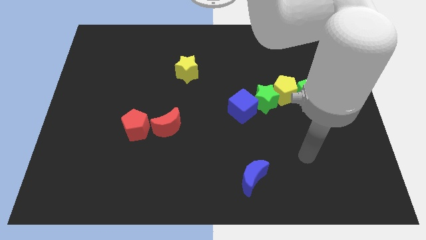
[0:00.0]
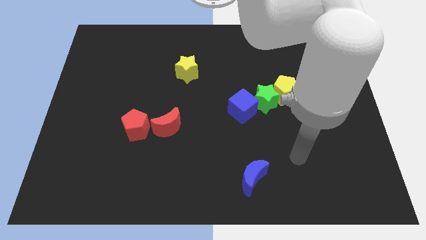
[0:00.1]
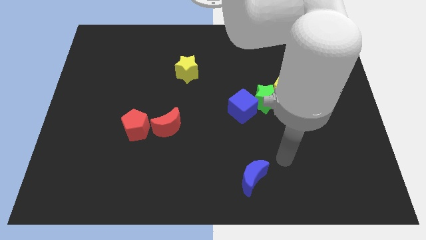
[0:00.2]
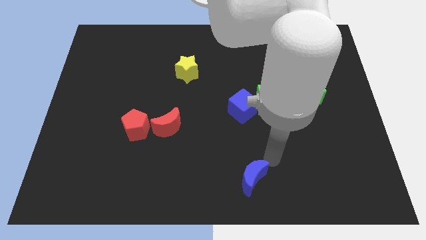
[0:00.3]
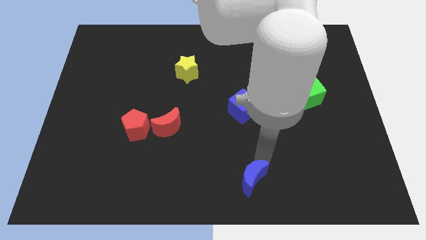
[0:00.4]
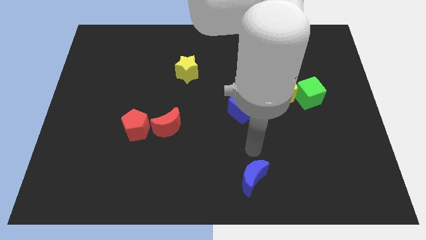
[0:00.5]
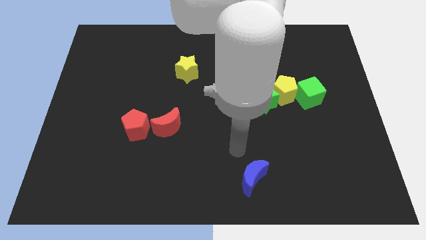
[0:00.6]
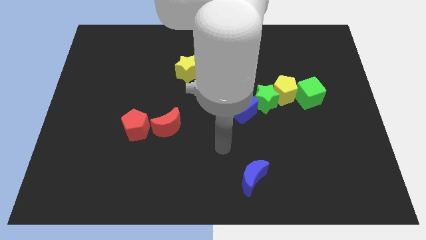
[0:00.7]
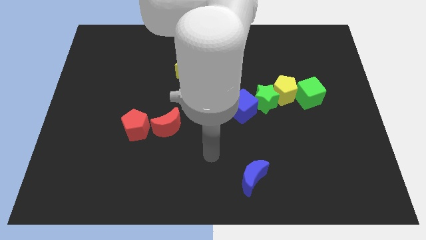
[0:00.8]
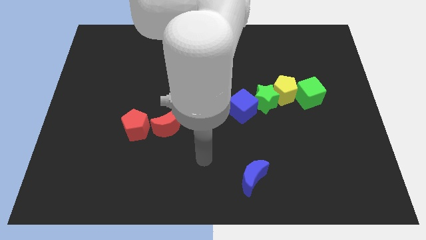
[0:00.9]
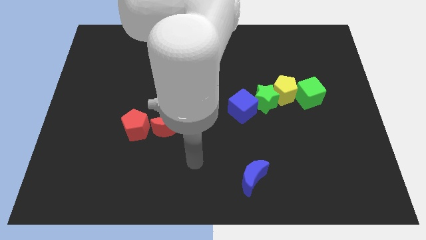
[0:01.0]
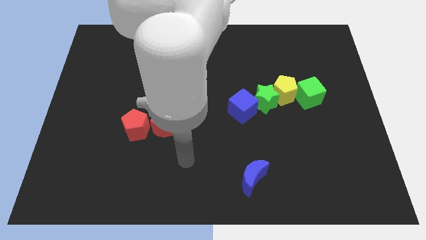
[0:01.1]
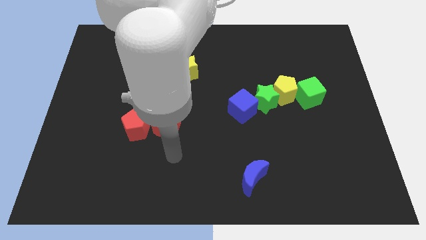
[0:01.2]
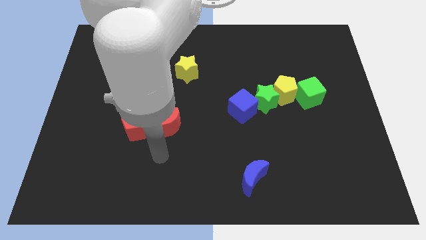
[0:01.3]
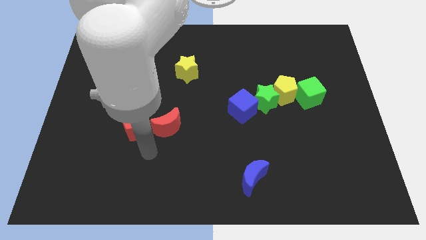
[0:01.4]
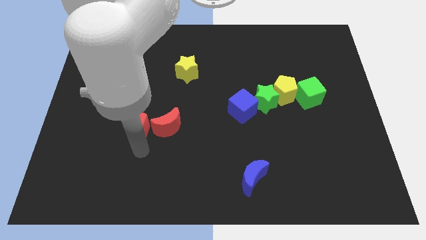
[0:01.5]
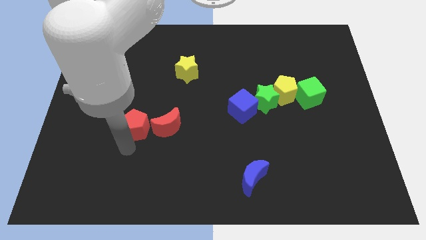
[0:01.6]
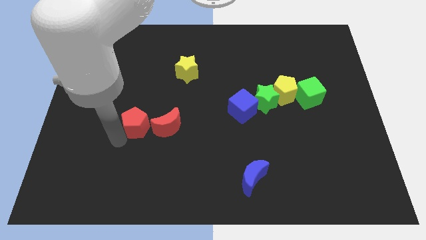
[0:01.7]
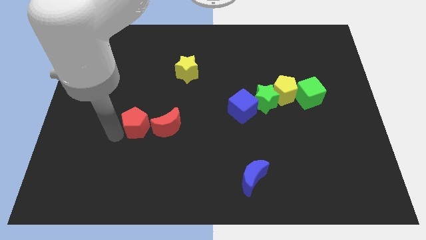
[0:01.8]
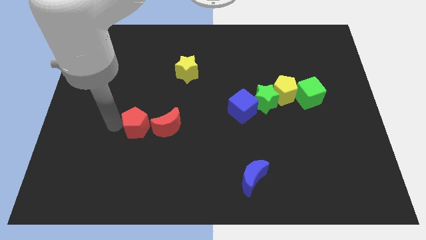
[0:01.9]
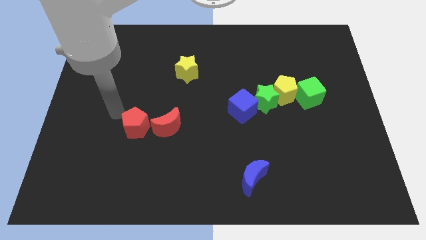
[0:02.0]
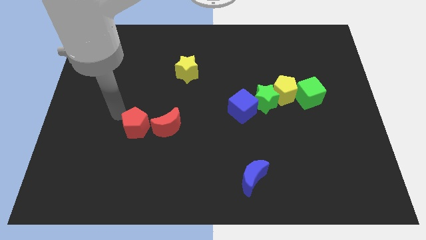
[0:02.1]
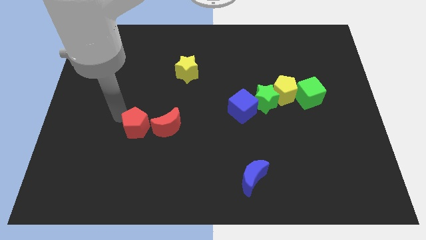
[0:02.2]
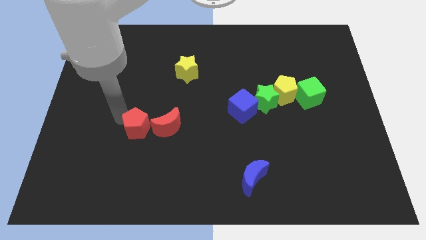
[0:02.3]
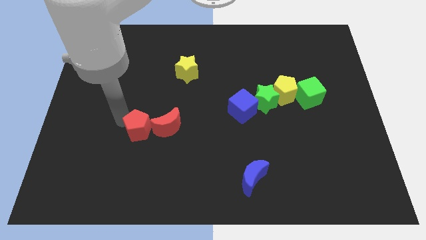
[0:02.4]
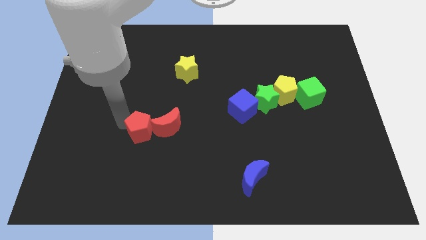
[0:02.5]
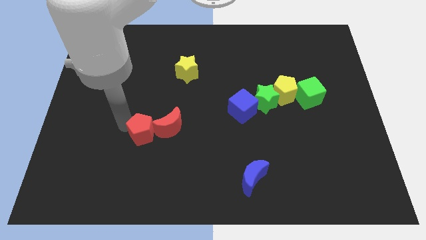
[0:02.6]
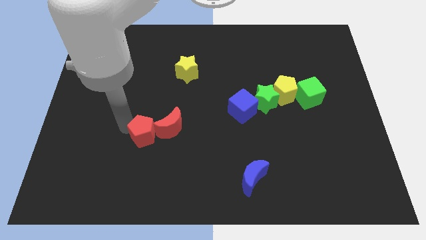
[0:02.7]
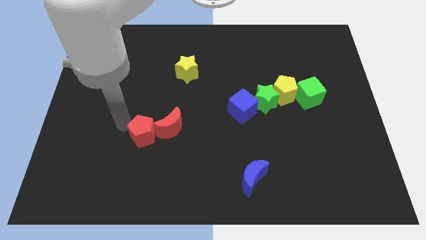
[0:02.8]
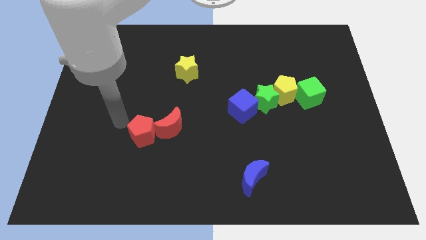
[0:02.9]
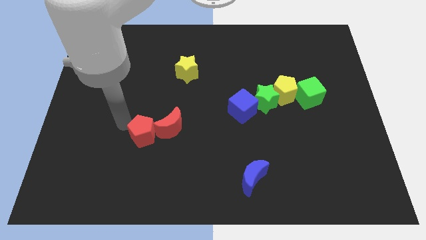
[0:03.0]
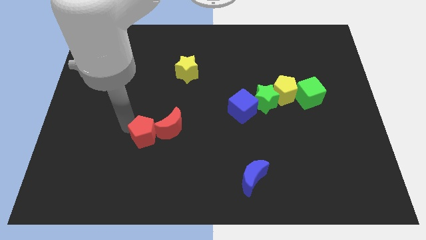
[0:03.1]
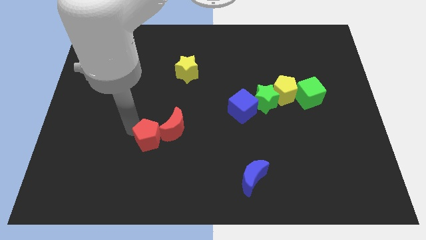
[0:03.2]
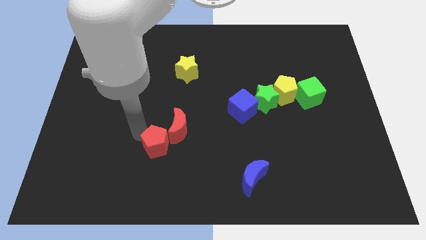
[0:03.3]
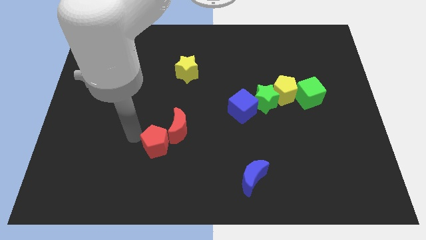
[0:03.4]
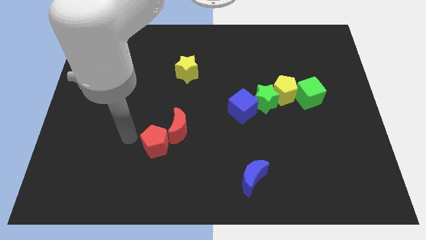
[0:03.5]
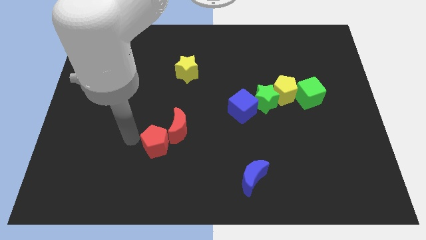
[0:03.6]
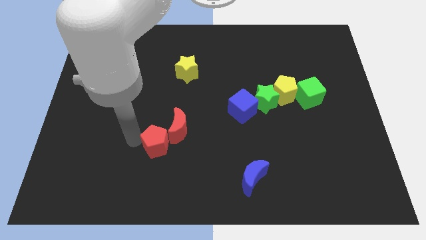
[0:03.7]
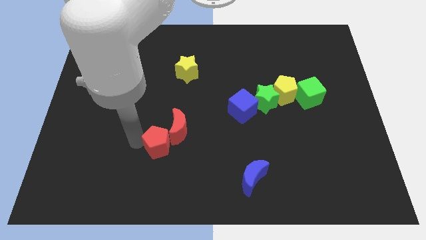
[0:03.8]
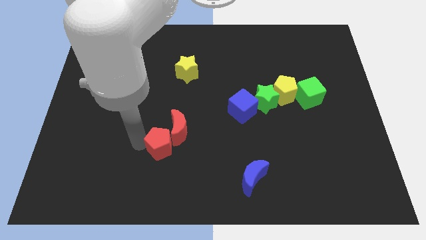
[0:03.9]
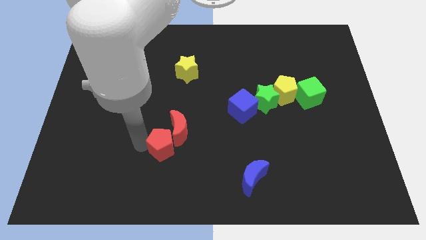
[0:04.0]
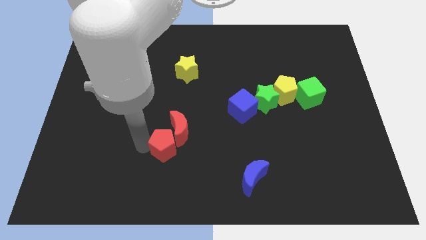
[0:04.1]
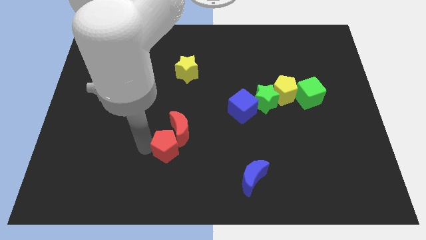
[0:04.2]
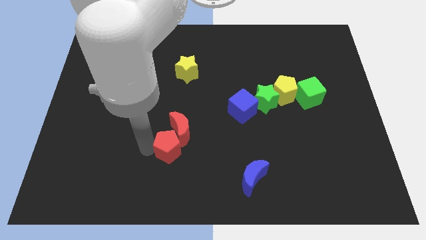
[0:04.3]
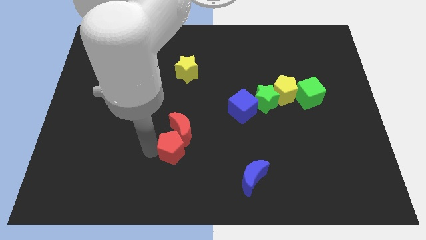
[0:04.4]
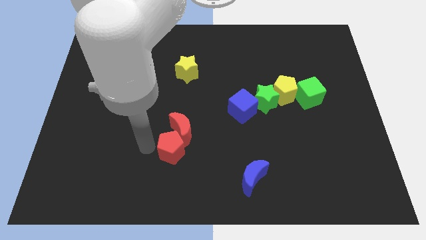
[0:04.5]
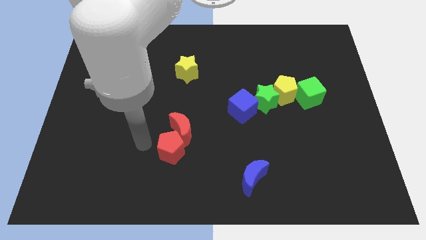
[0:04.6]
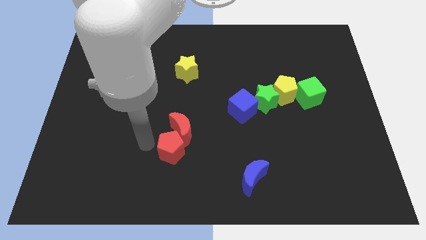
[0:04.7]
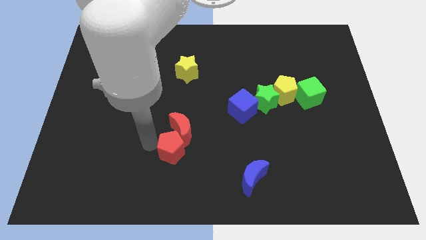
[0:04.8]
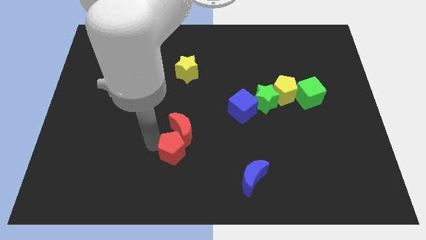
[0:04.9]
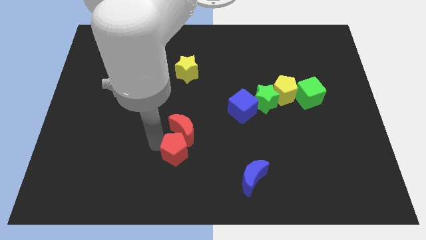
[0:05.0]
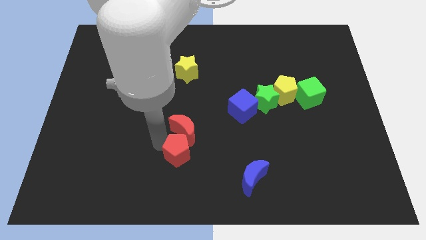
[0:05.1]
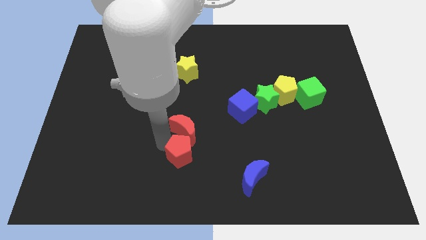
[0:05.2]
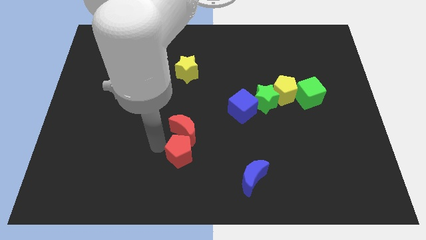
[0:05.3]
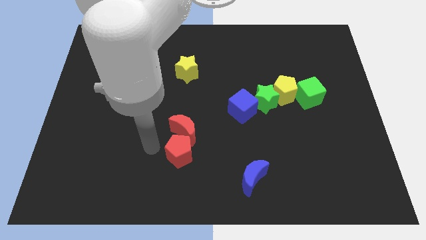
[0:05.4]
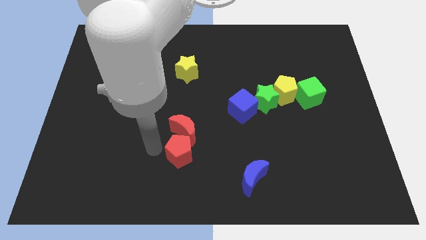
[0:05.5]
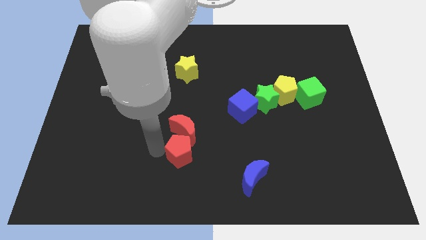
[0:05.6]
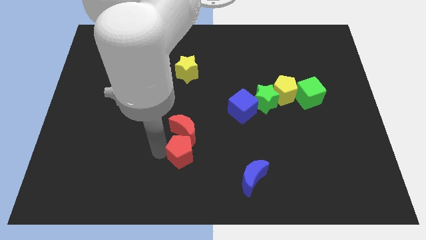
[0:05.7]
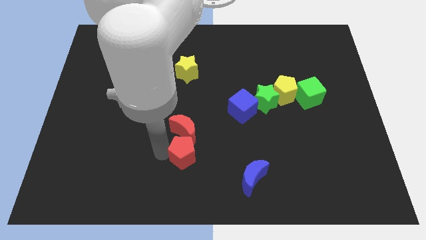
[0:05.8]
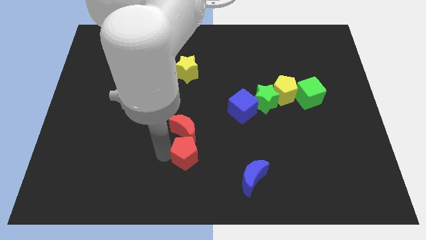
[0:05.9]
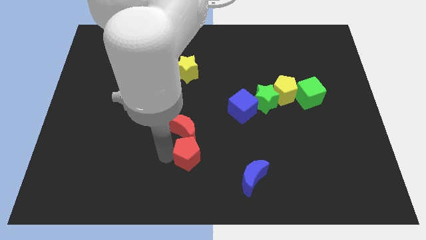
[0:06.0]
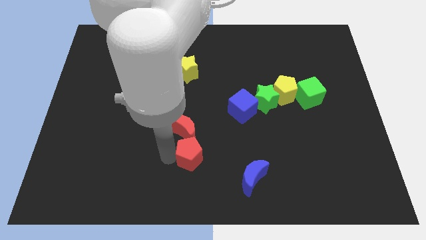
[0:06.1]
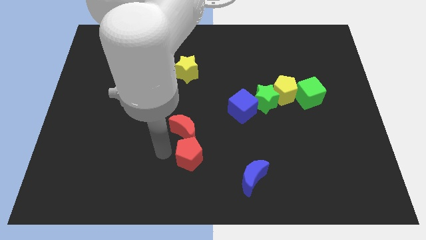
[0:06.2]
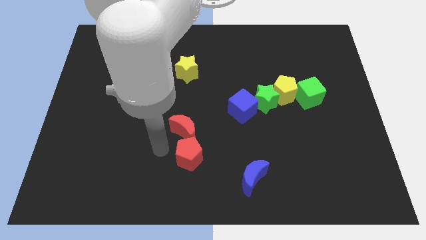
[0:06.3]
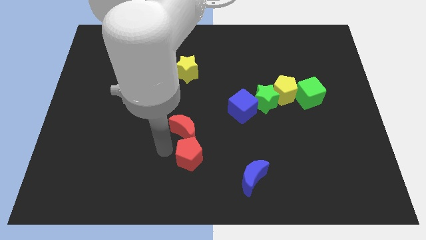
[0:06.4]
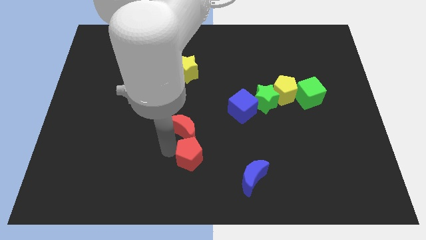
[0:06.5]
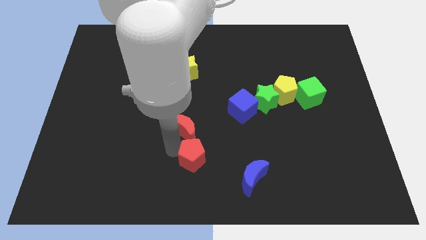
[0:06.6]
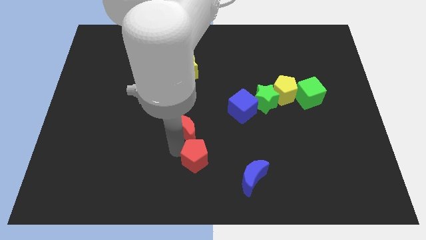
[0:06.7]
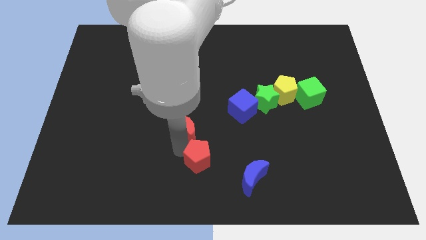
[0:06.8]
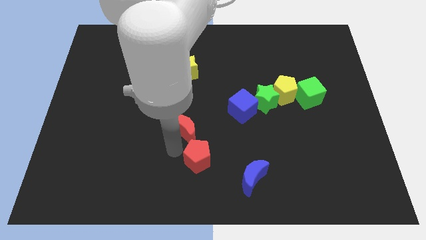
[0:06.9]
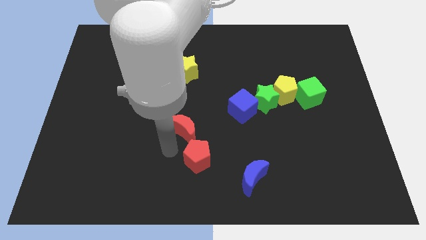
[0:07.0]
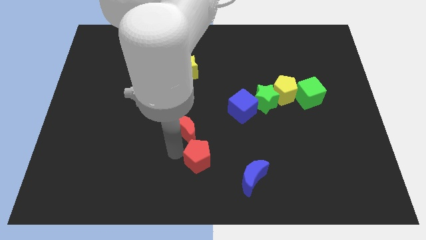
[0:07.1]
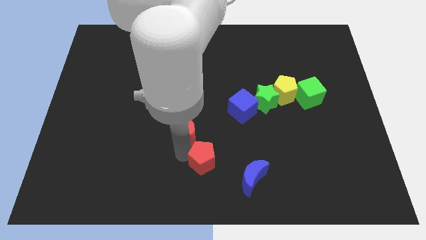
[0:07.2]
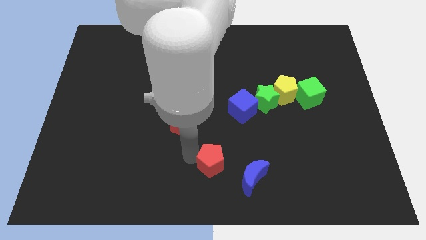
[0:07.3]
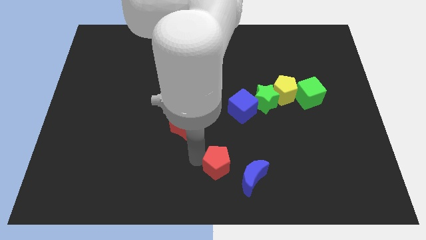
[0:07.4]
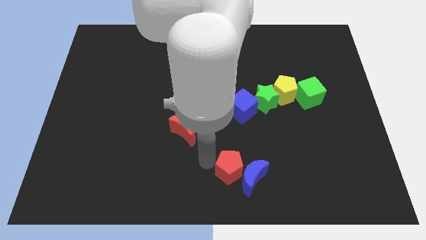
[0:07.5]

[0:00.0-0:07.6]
put the red pentagon next to the blue moon
